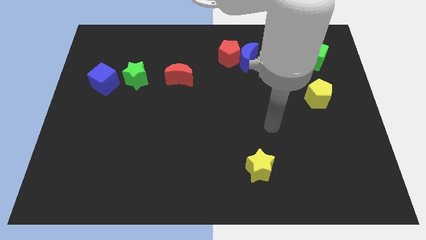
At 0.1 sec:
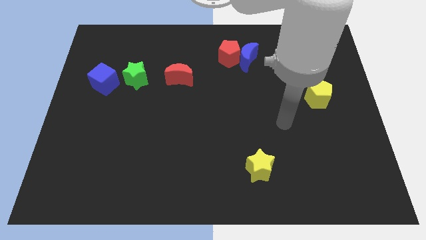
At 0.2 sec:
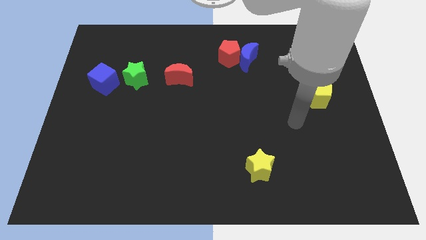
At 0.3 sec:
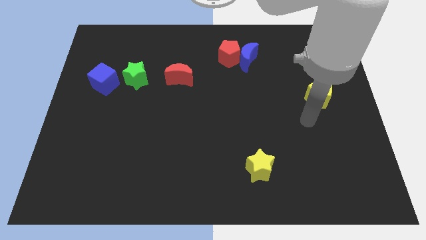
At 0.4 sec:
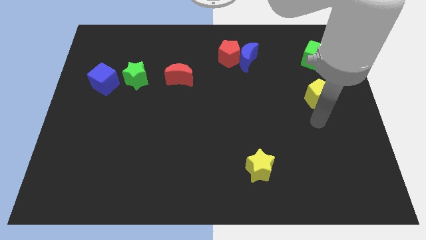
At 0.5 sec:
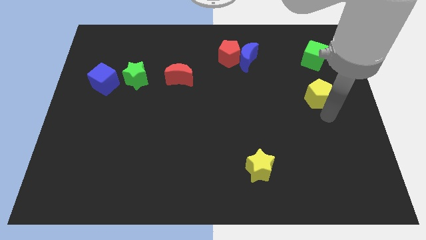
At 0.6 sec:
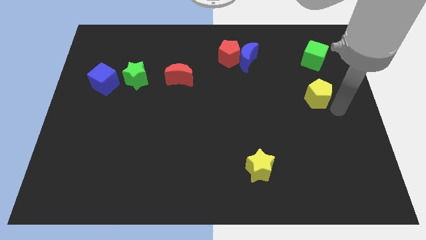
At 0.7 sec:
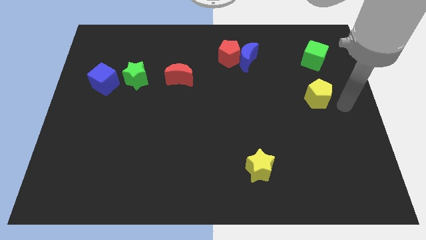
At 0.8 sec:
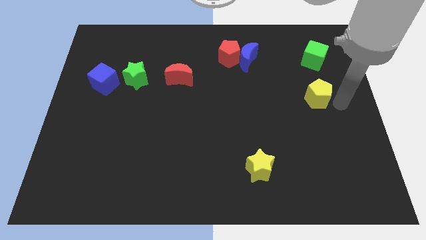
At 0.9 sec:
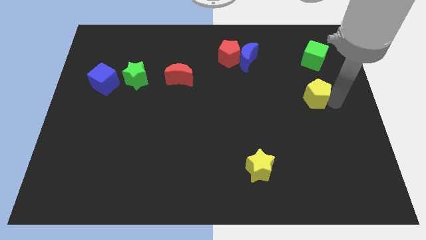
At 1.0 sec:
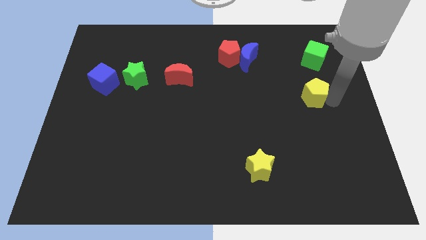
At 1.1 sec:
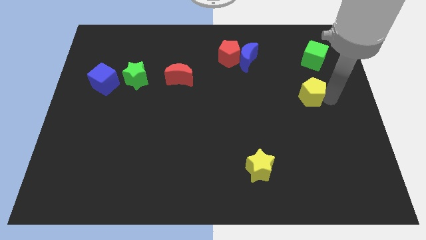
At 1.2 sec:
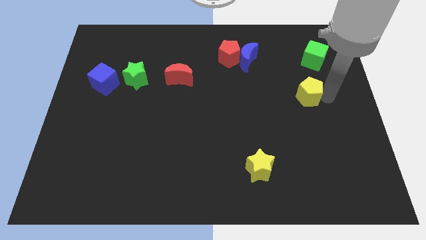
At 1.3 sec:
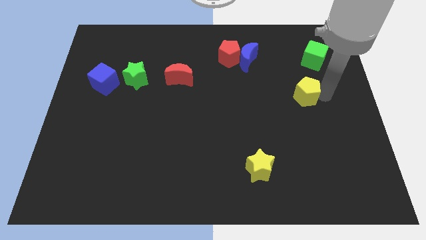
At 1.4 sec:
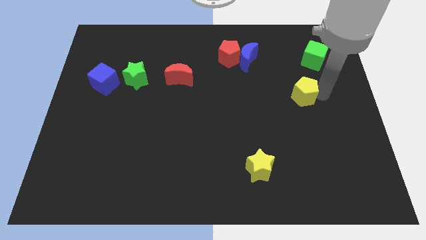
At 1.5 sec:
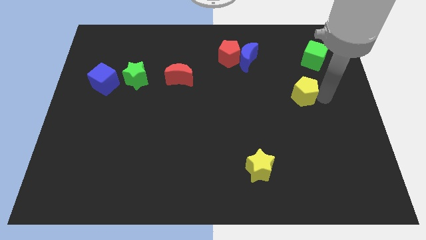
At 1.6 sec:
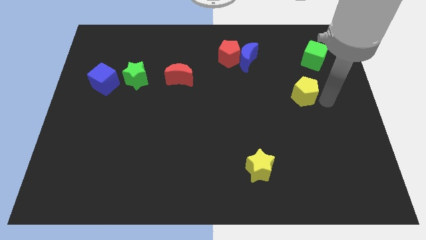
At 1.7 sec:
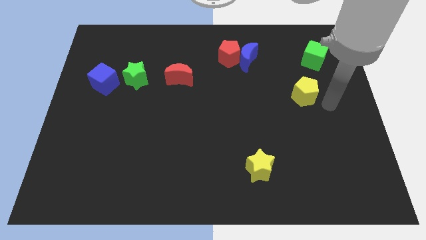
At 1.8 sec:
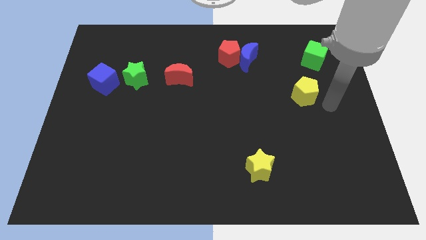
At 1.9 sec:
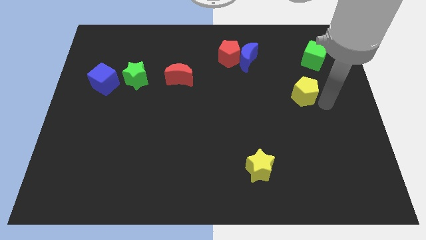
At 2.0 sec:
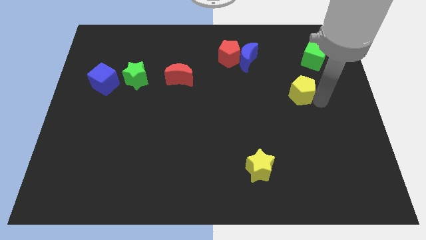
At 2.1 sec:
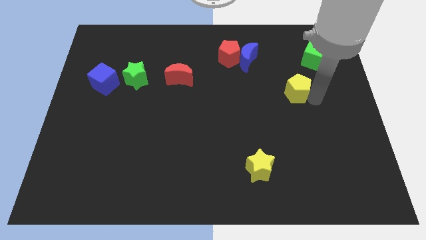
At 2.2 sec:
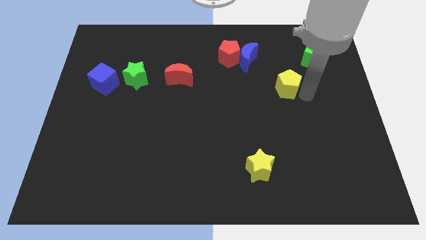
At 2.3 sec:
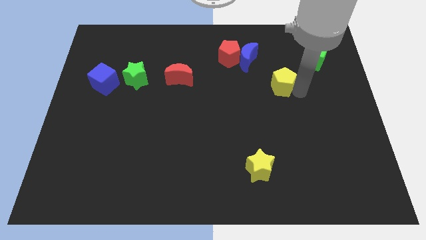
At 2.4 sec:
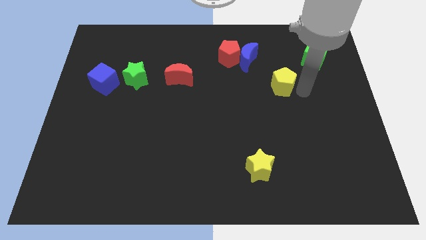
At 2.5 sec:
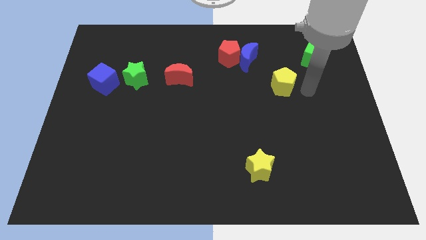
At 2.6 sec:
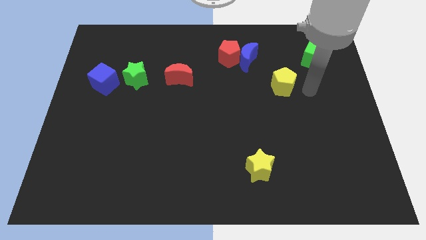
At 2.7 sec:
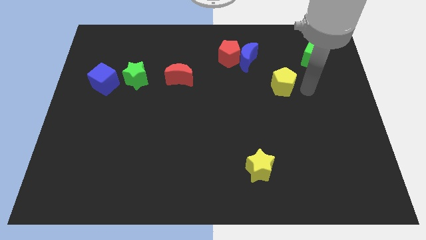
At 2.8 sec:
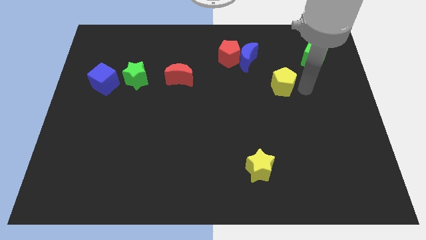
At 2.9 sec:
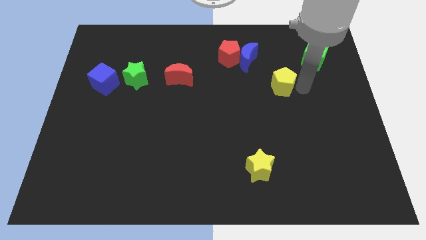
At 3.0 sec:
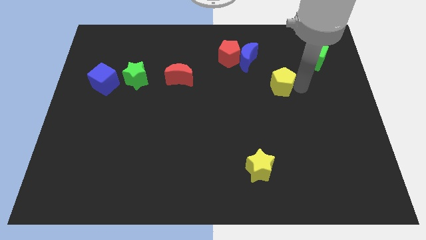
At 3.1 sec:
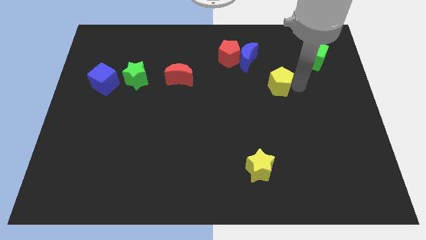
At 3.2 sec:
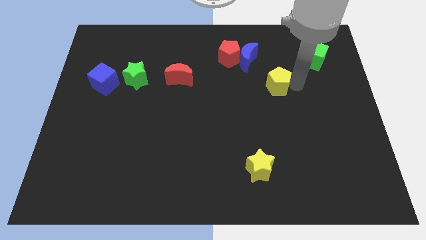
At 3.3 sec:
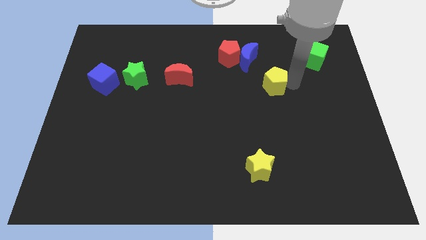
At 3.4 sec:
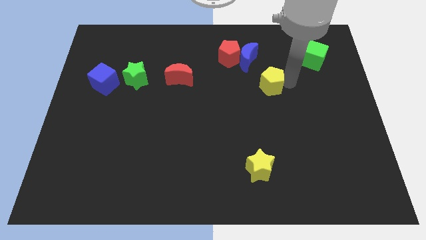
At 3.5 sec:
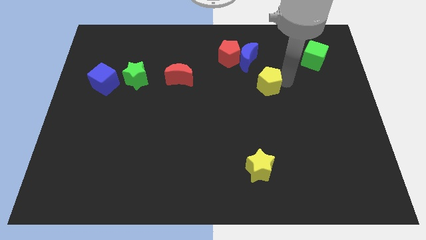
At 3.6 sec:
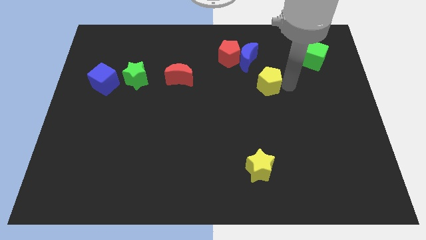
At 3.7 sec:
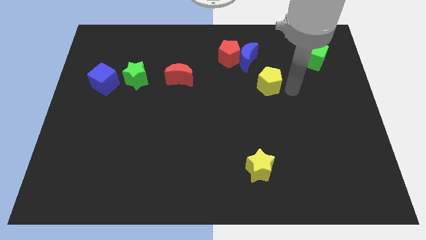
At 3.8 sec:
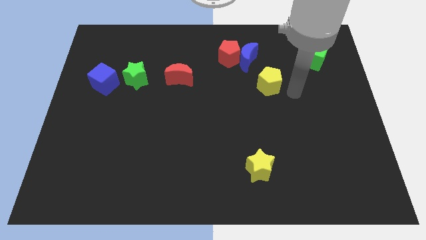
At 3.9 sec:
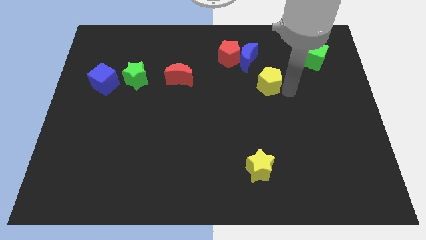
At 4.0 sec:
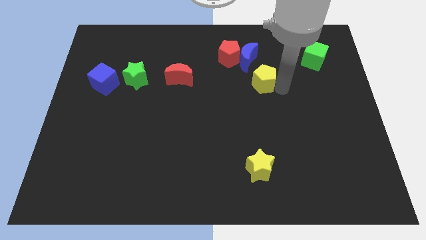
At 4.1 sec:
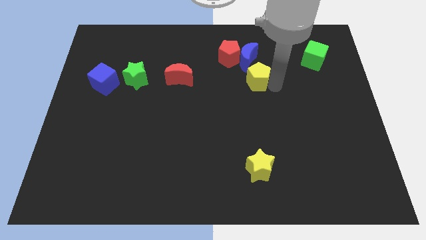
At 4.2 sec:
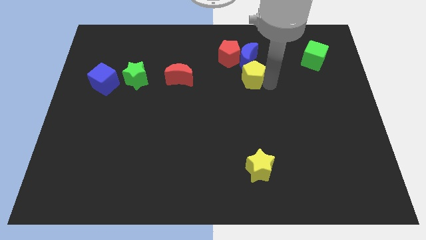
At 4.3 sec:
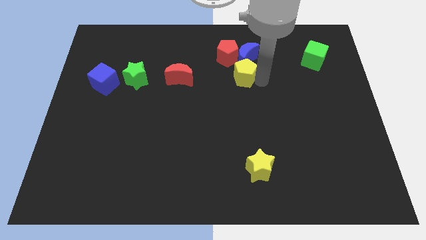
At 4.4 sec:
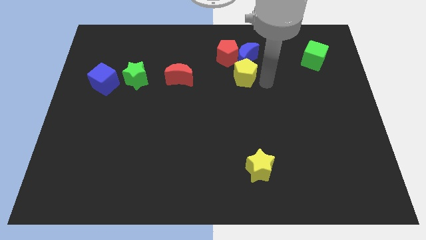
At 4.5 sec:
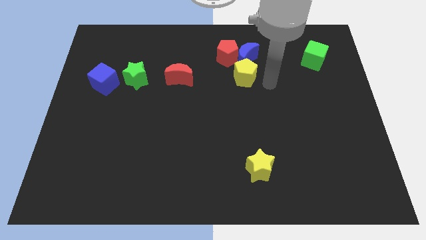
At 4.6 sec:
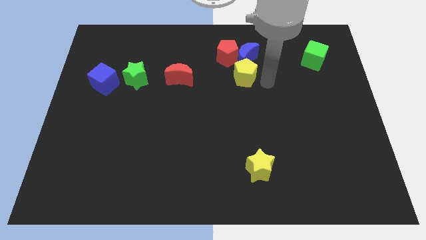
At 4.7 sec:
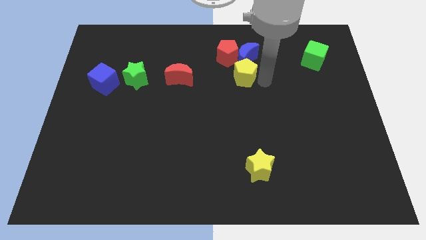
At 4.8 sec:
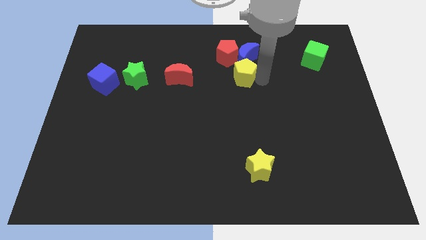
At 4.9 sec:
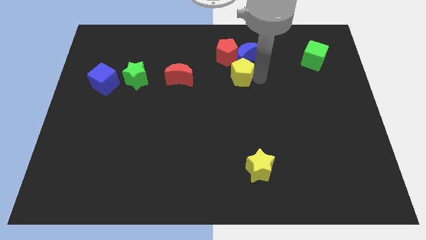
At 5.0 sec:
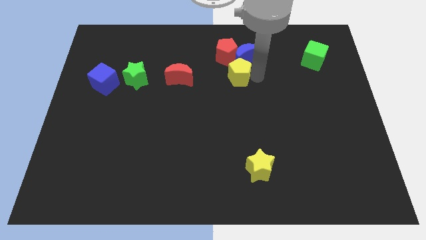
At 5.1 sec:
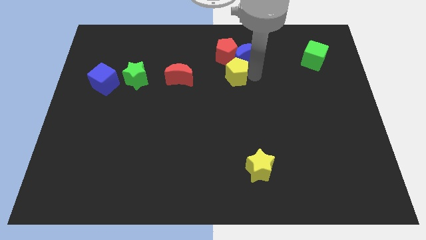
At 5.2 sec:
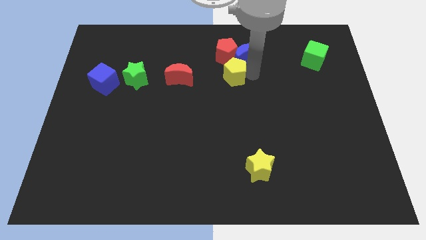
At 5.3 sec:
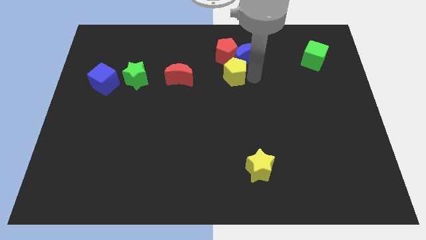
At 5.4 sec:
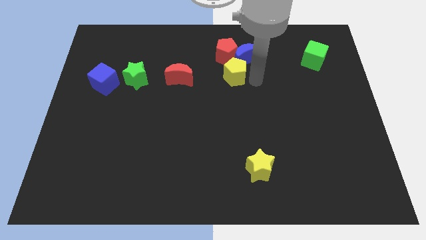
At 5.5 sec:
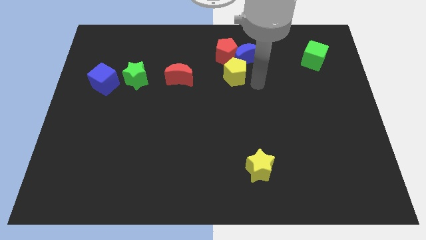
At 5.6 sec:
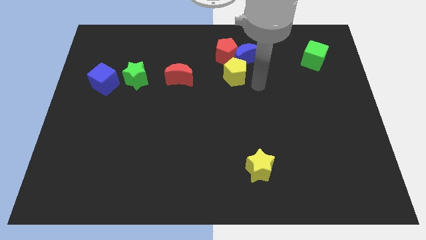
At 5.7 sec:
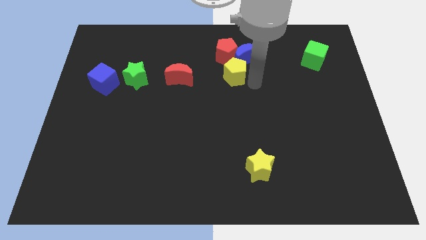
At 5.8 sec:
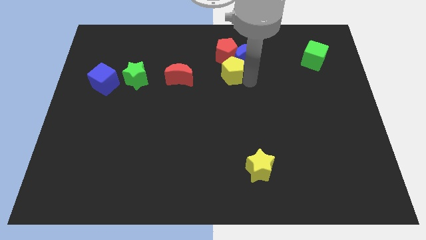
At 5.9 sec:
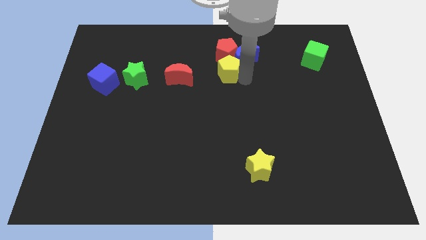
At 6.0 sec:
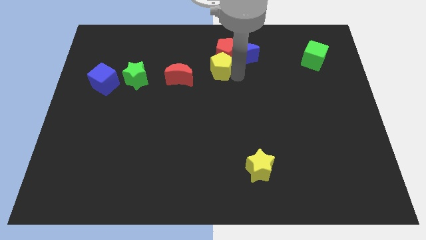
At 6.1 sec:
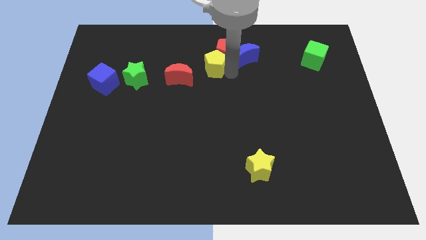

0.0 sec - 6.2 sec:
put the yellow pentagon to the top right of the red moon
